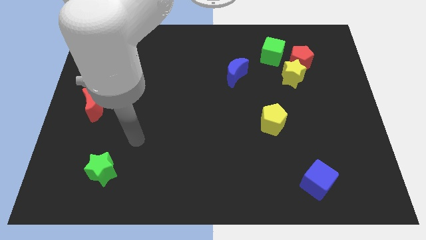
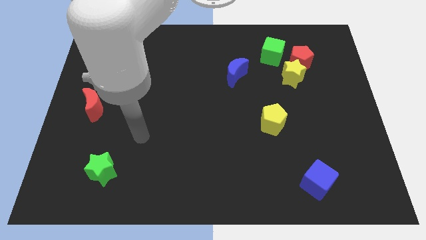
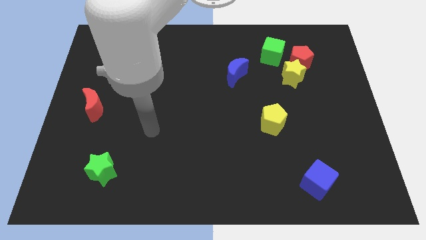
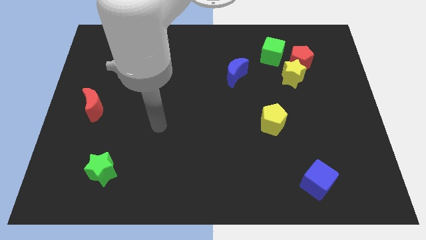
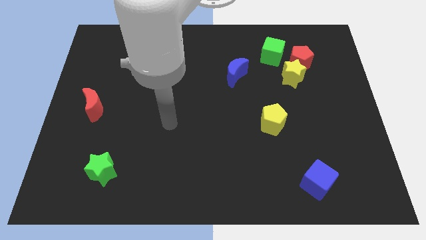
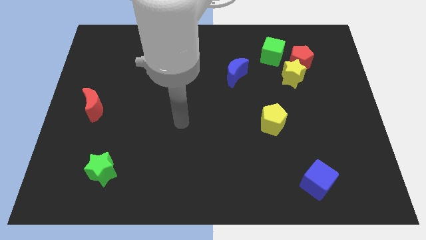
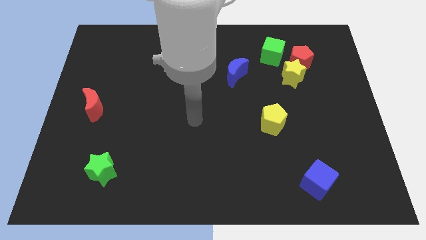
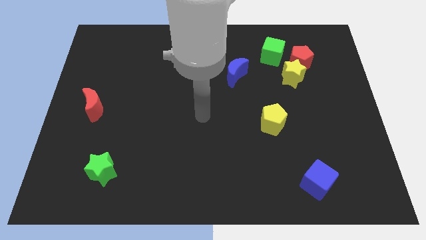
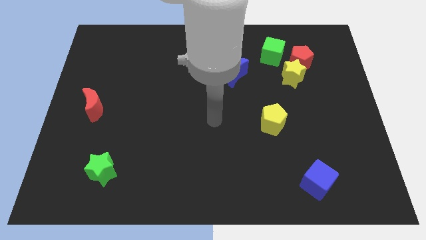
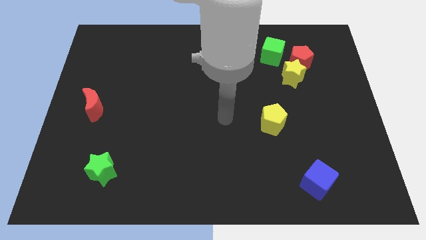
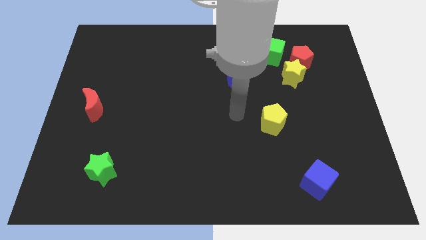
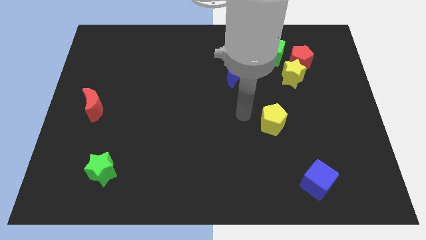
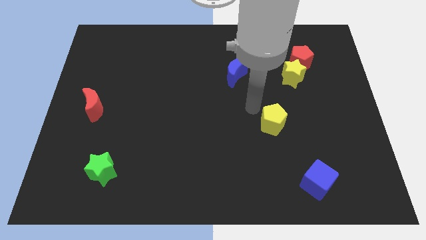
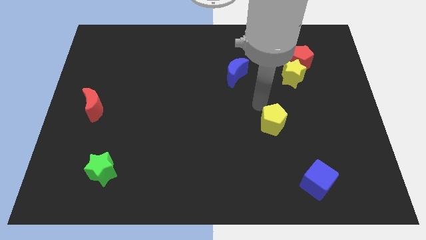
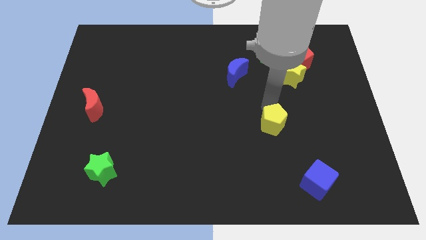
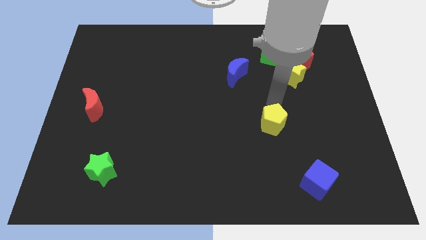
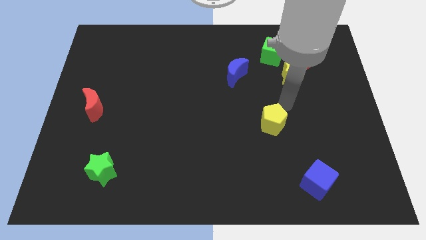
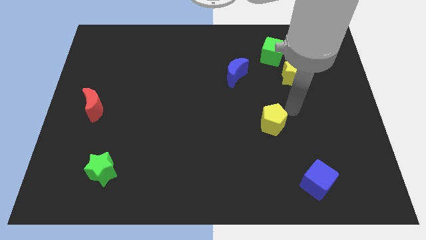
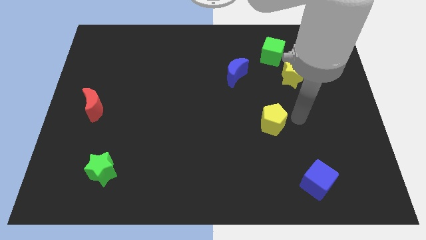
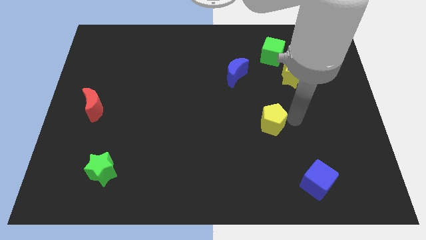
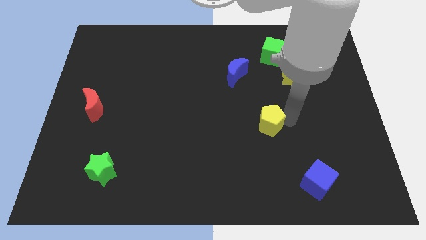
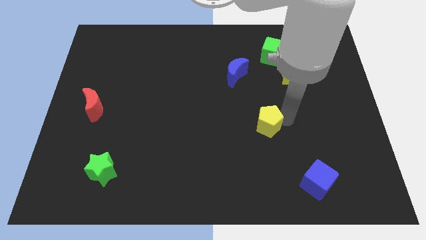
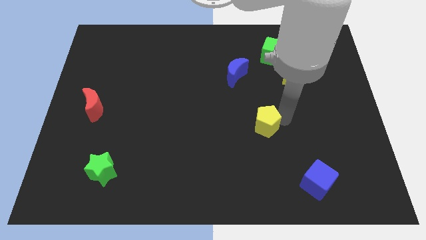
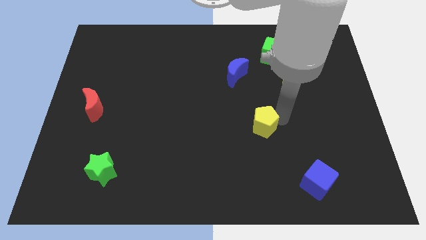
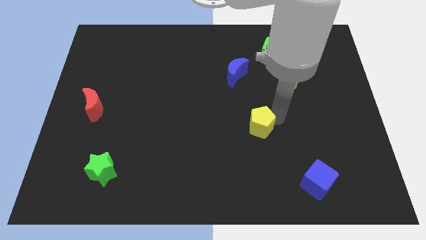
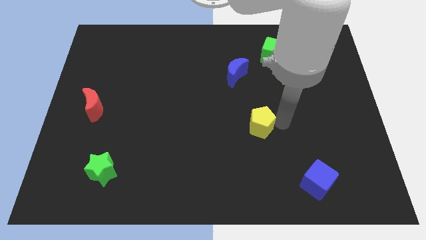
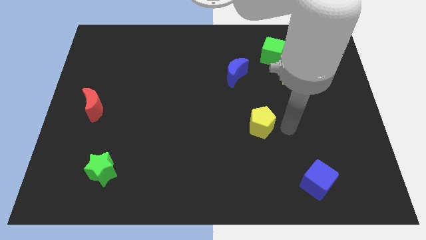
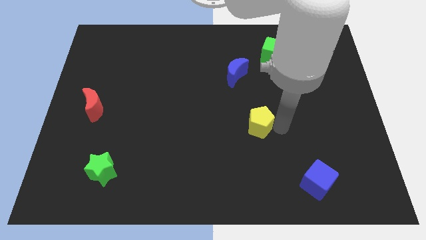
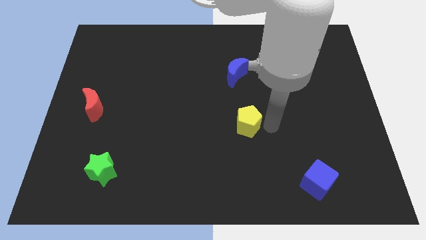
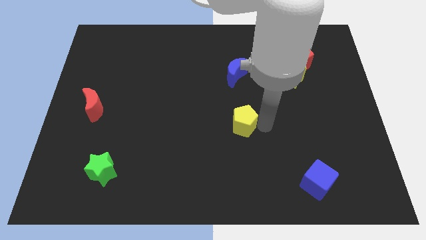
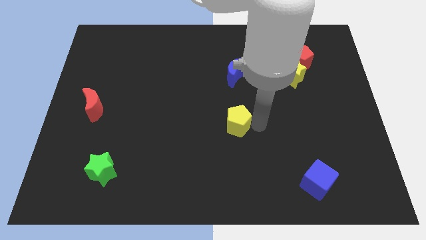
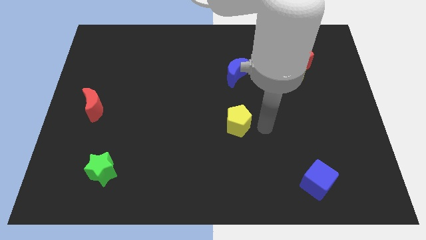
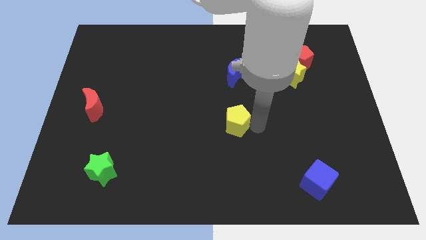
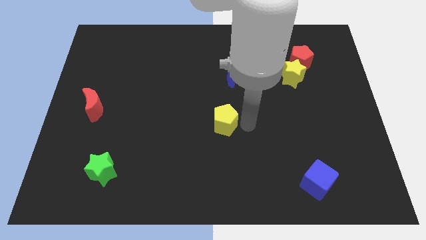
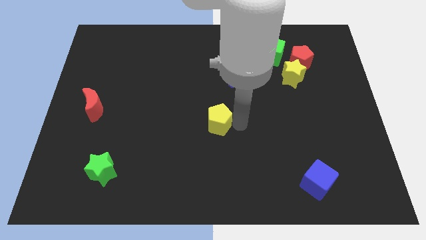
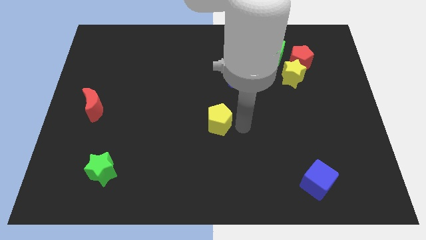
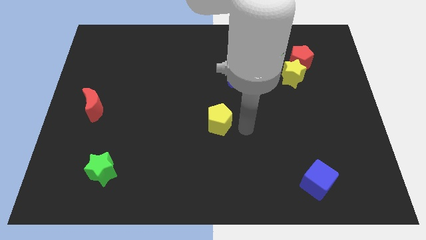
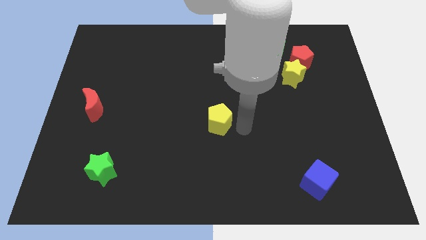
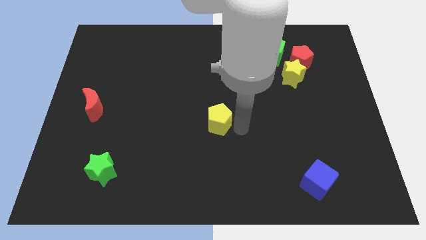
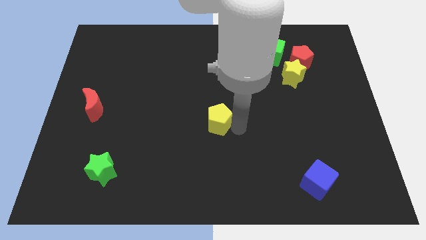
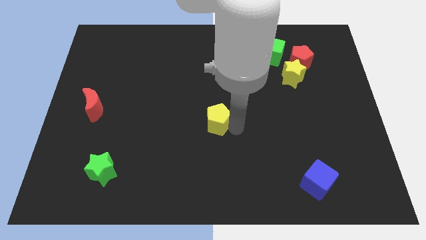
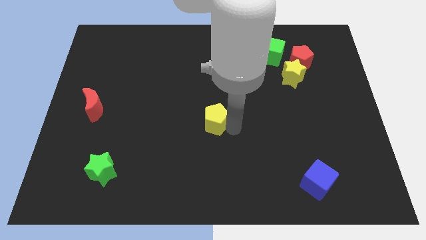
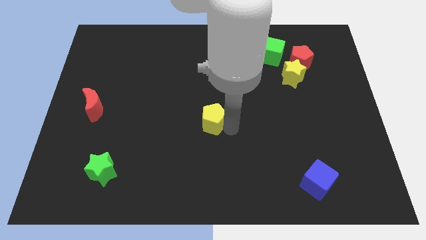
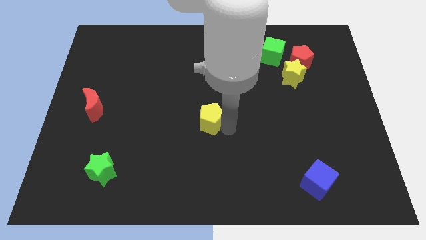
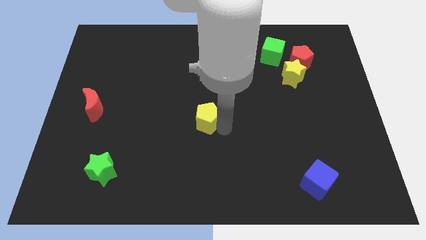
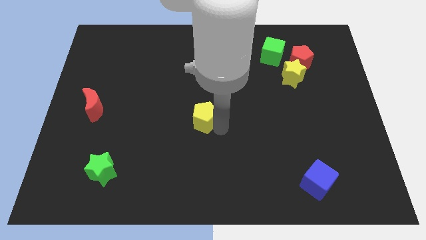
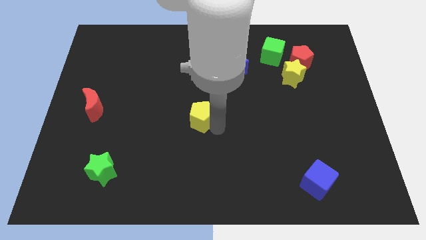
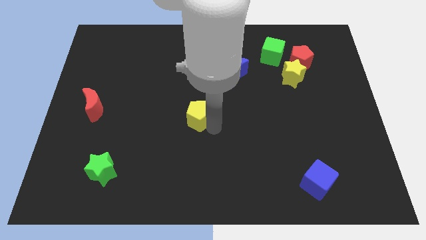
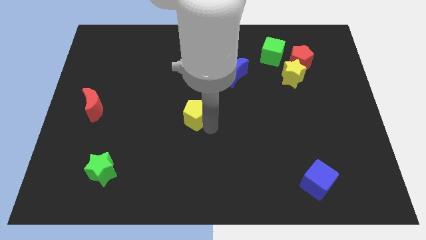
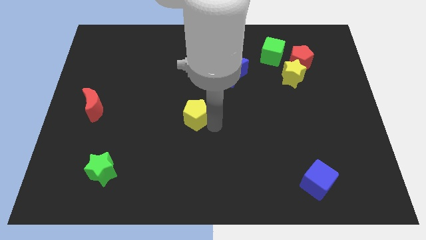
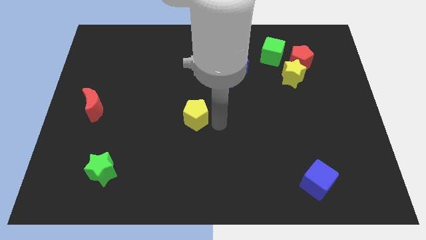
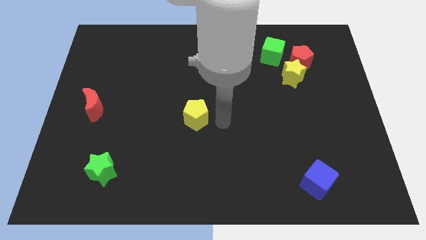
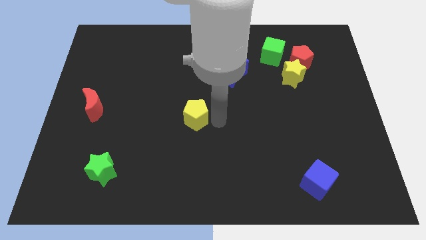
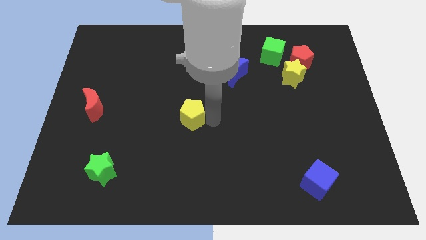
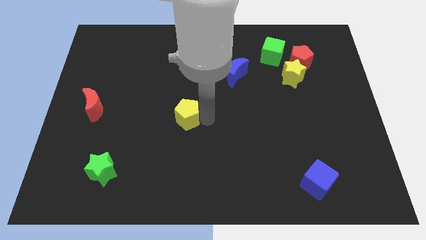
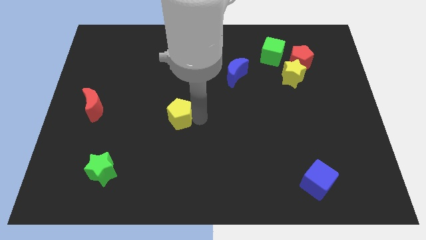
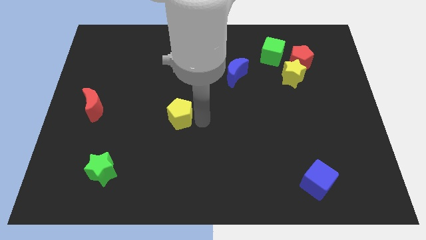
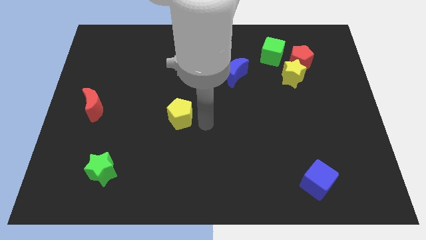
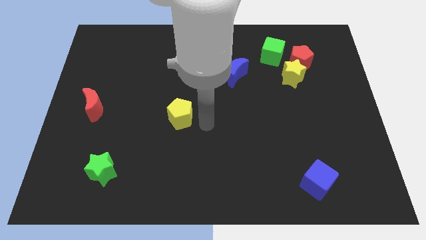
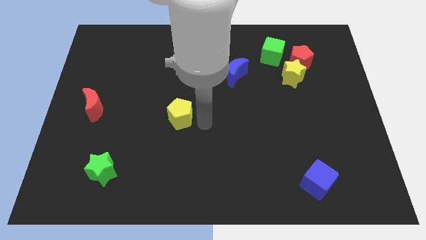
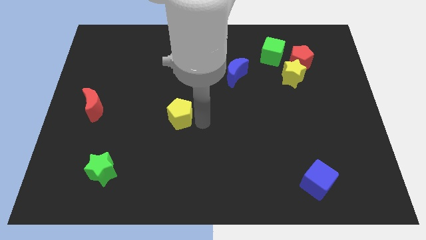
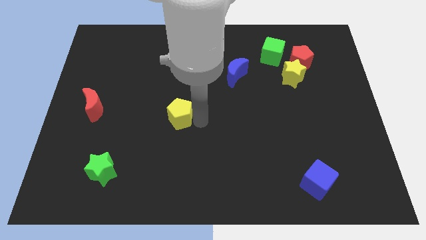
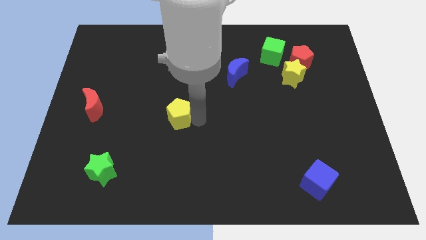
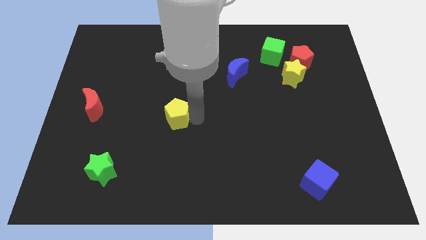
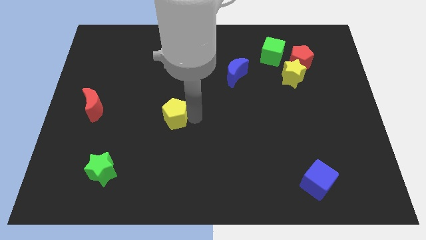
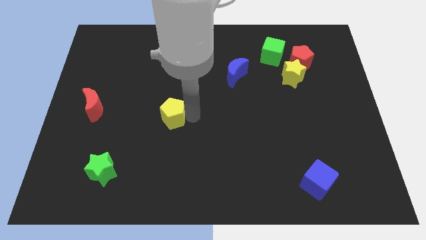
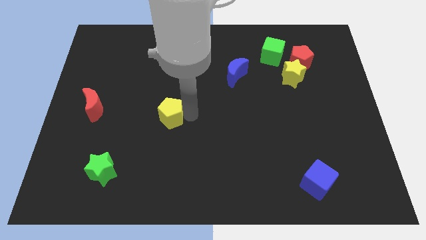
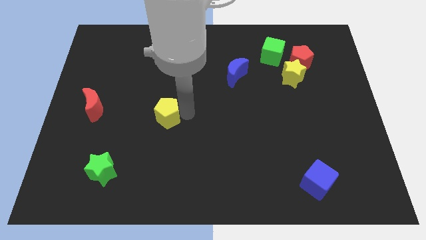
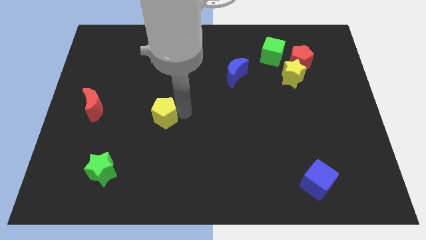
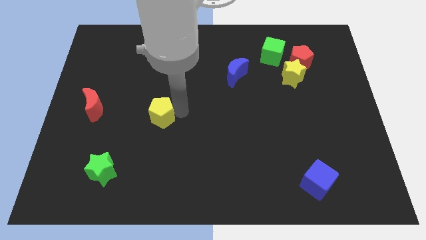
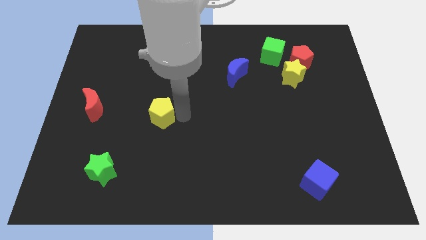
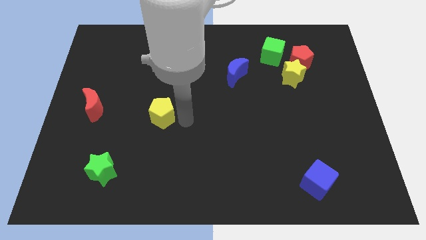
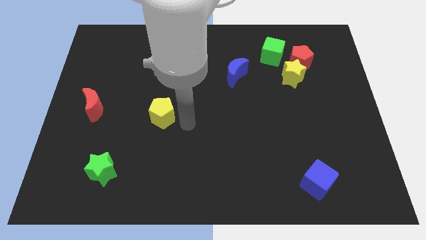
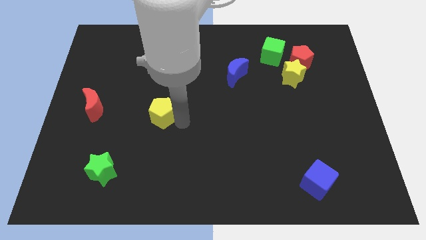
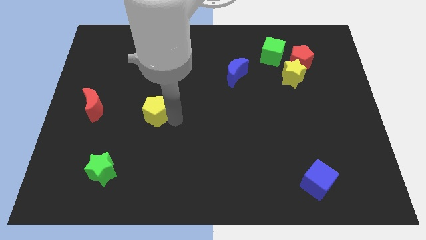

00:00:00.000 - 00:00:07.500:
slide the yellow pentagon to the right side of the red moon

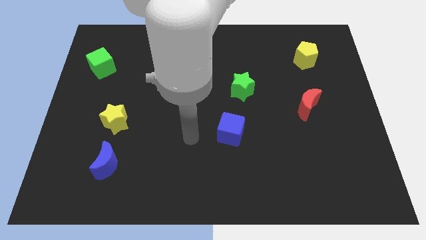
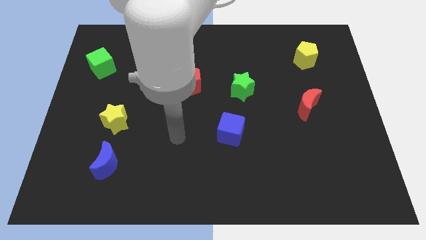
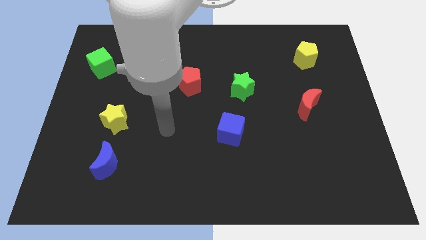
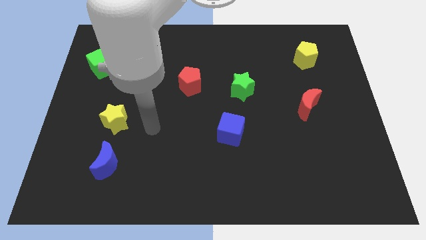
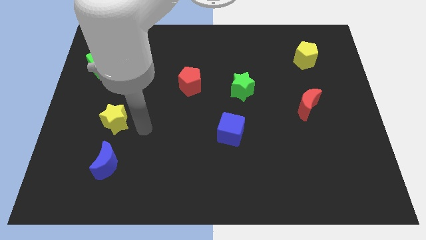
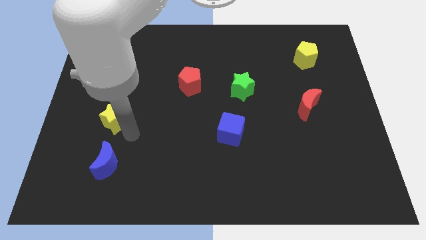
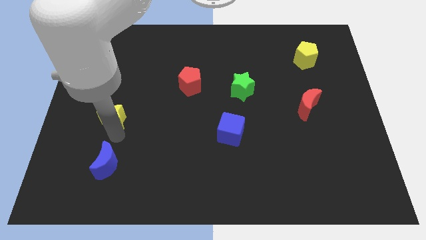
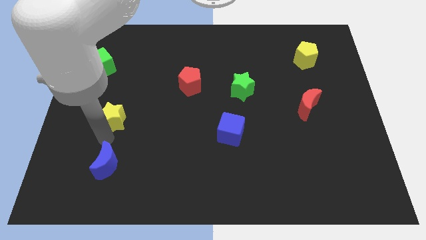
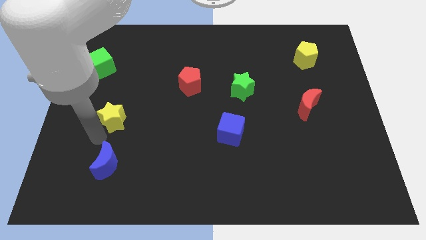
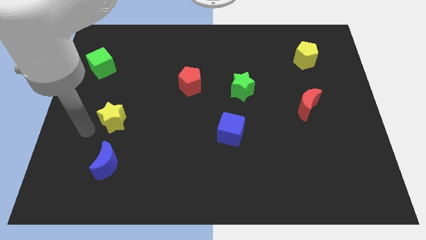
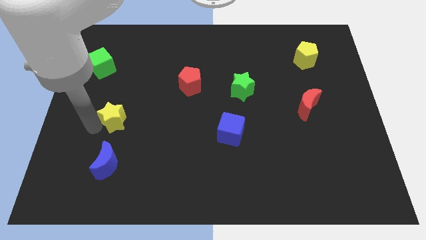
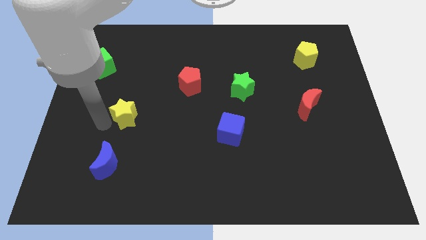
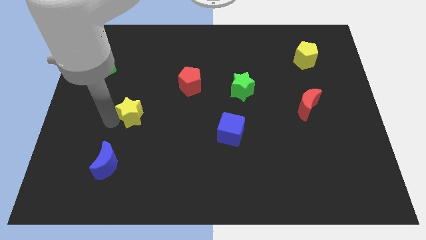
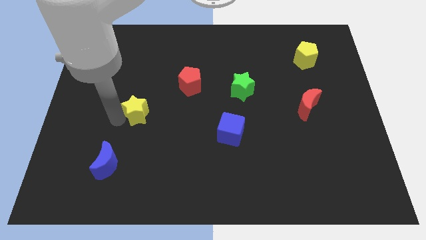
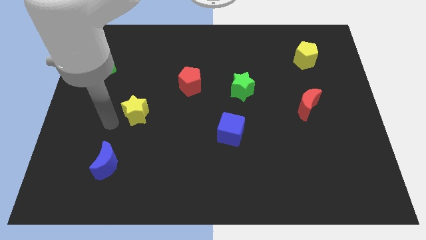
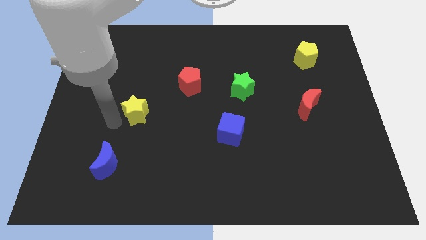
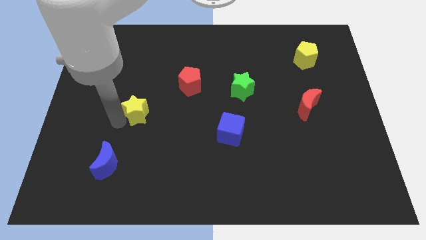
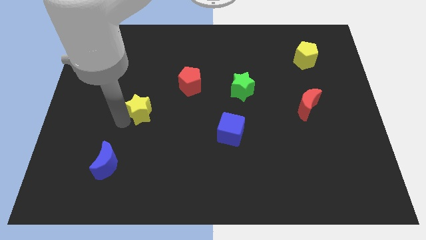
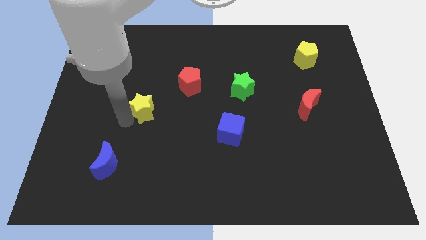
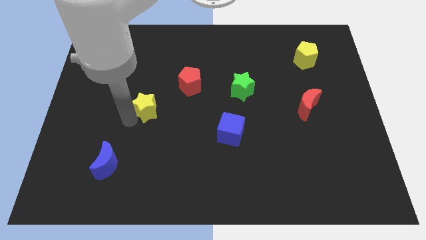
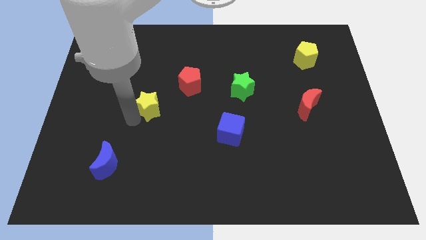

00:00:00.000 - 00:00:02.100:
move the yellow star to the bottom left side of the red pentagon
